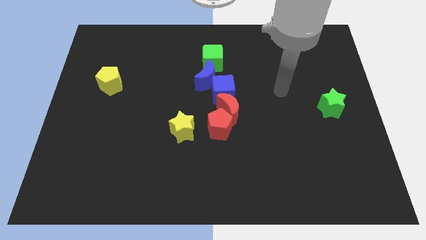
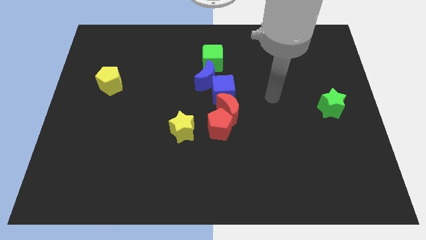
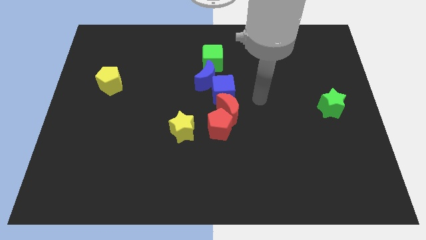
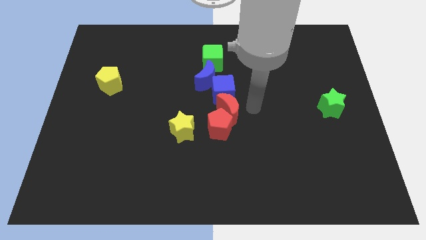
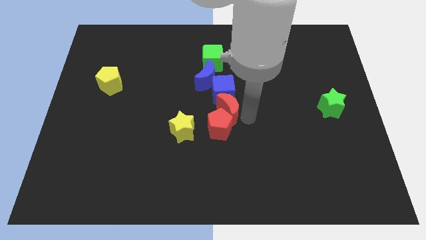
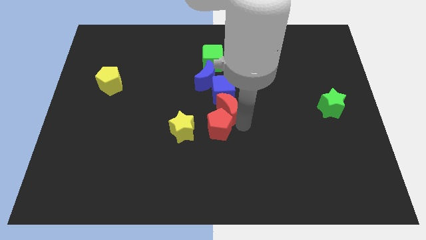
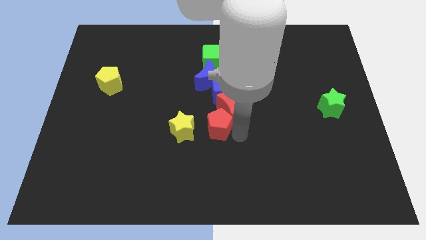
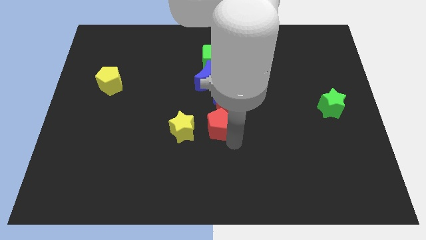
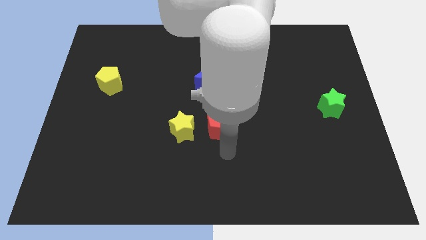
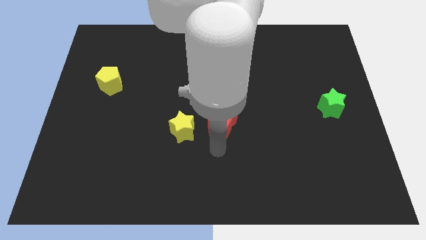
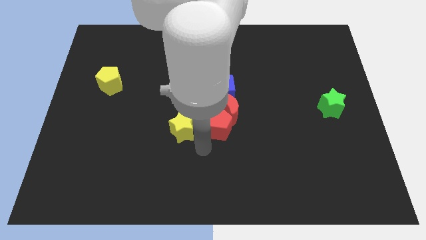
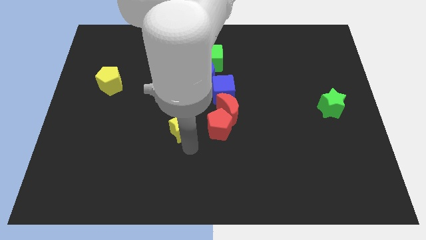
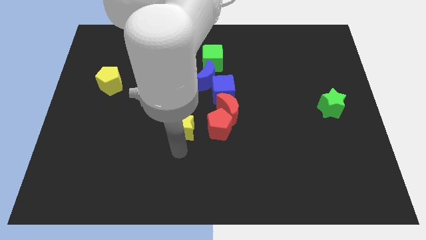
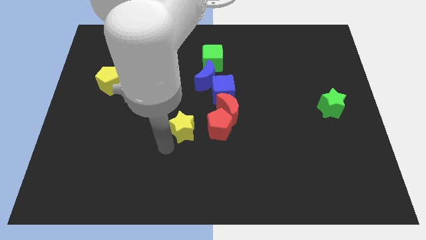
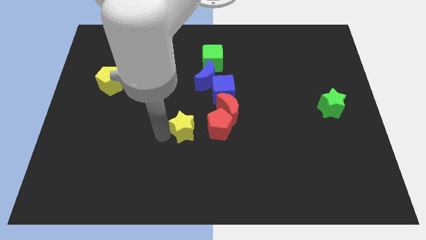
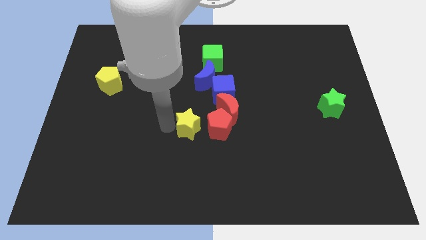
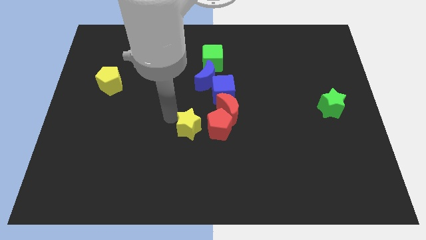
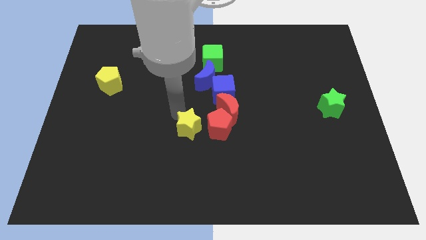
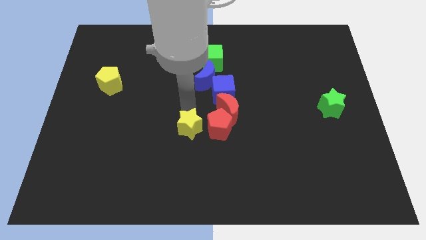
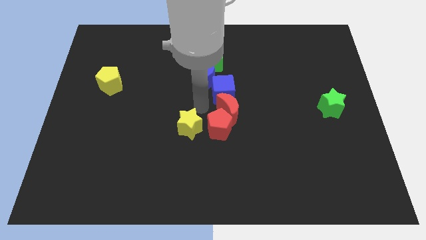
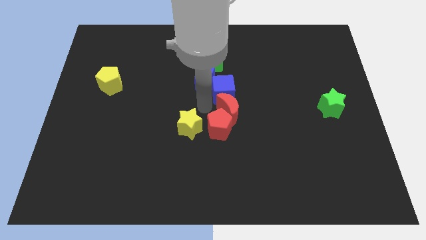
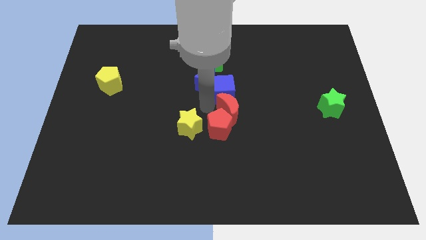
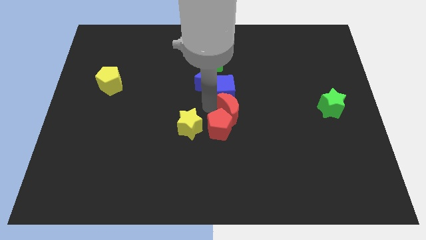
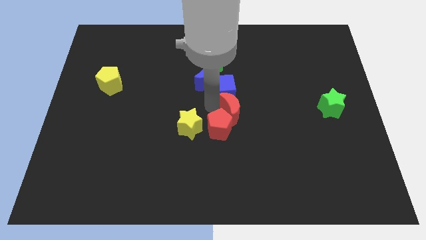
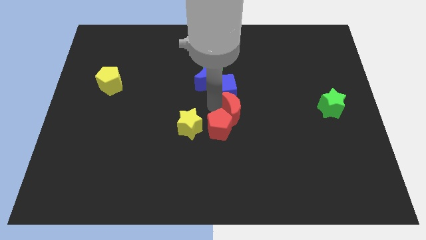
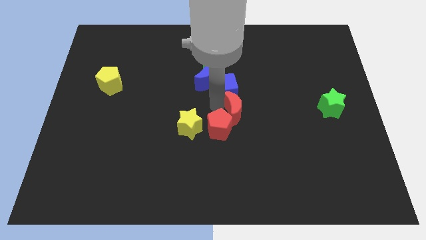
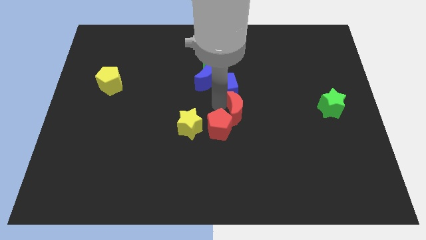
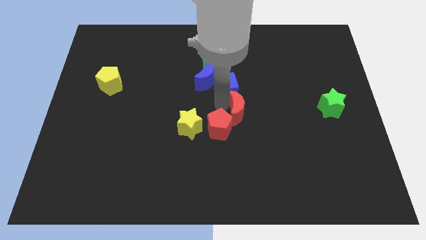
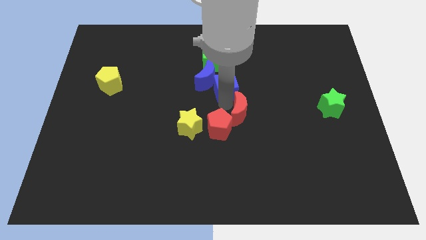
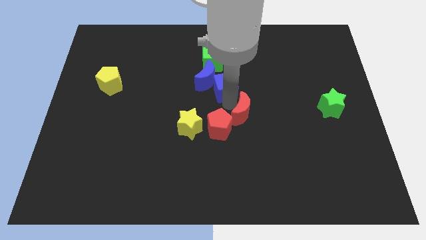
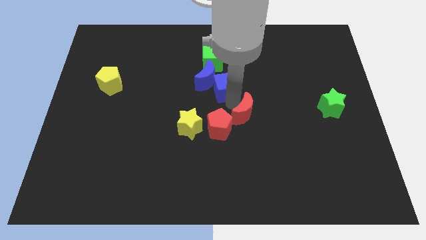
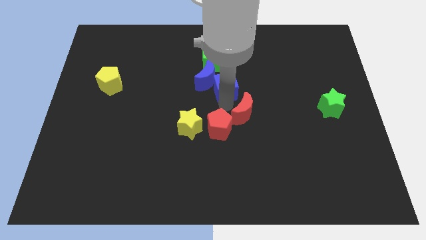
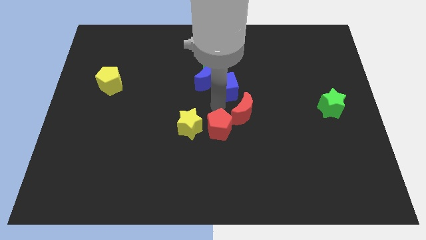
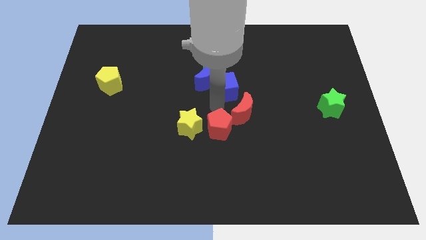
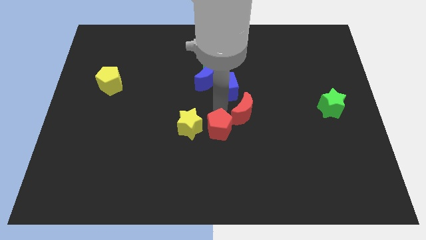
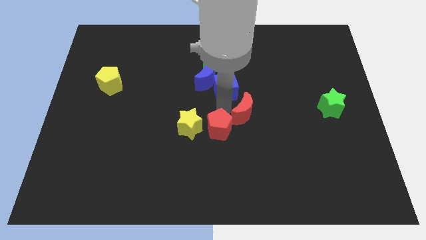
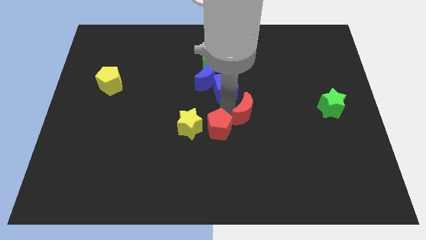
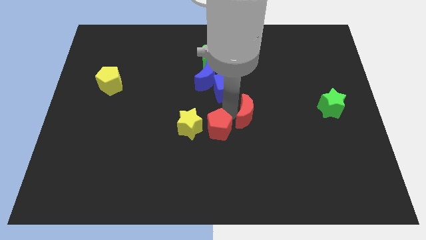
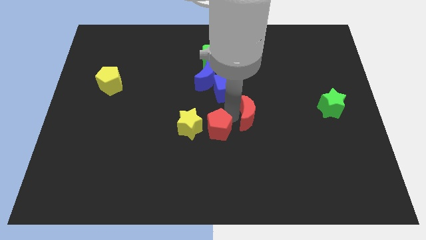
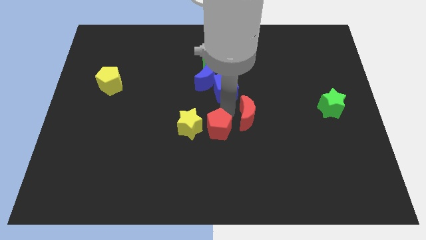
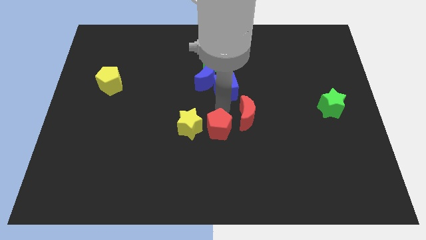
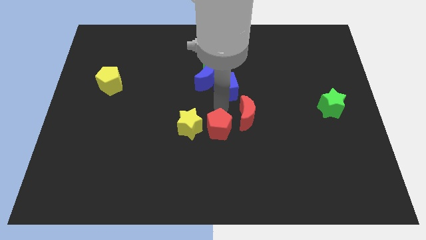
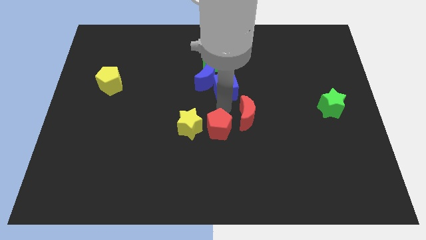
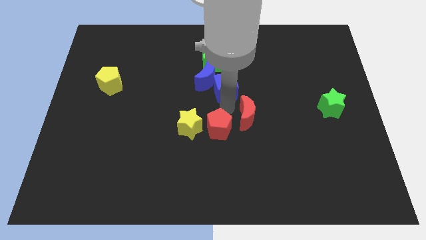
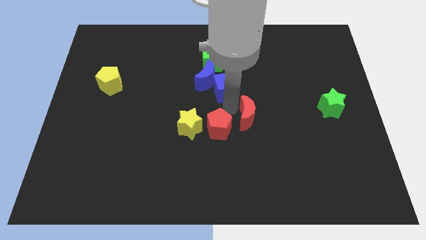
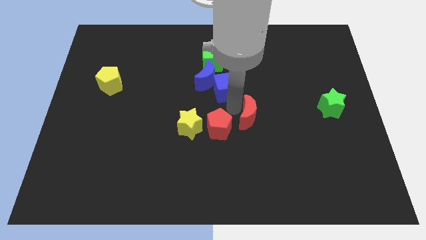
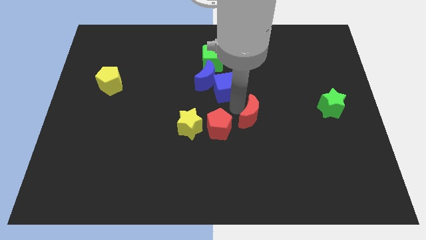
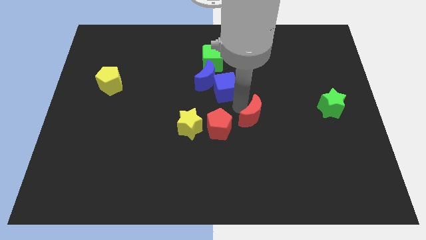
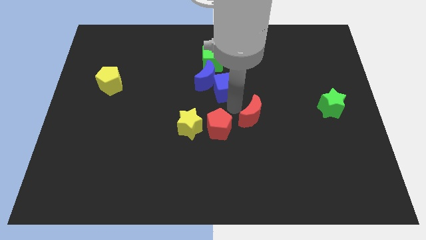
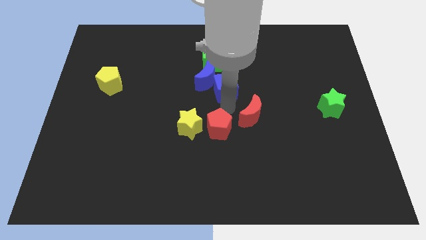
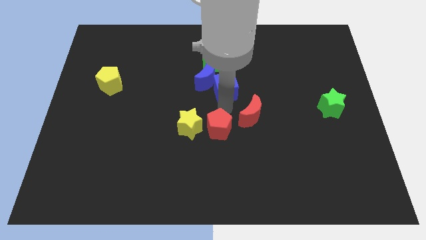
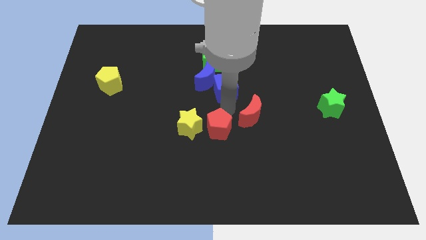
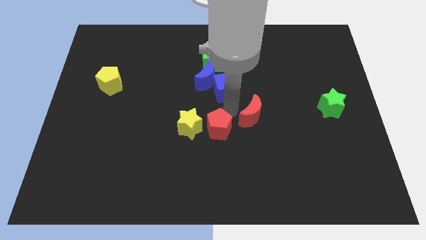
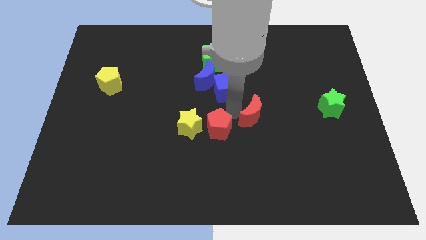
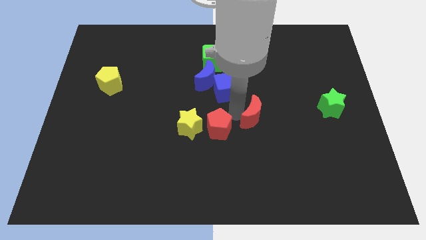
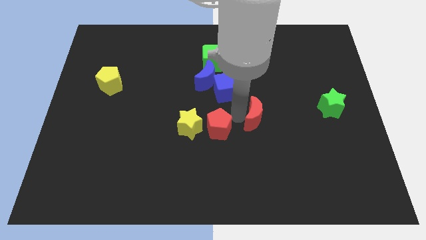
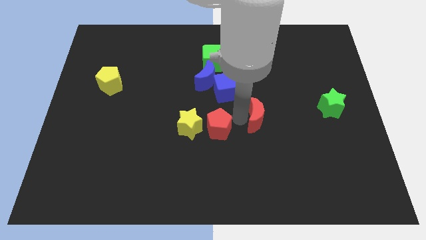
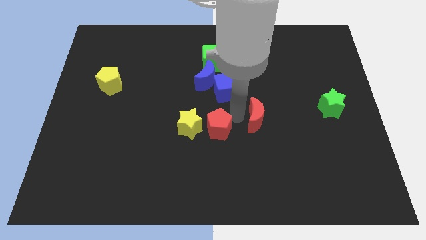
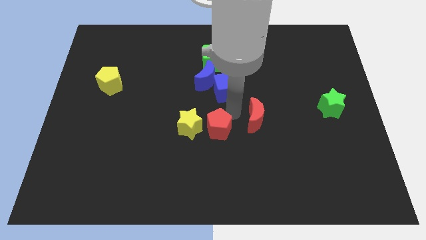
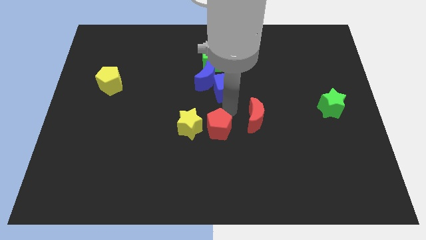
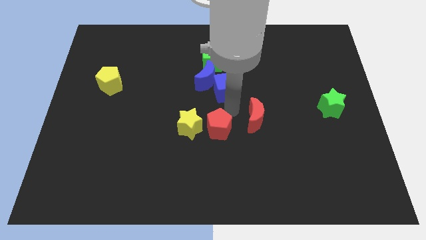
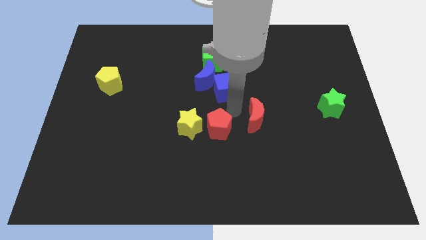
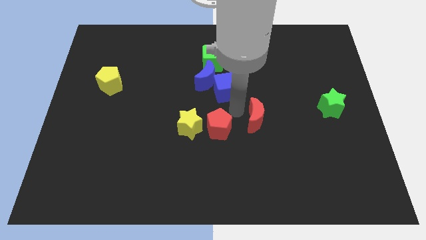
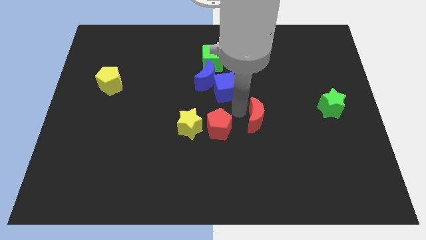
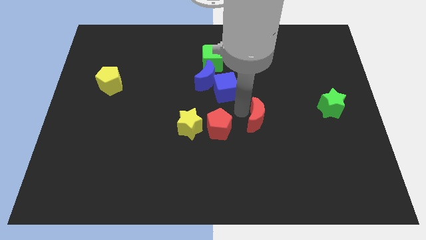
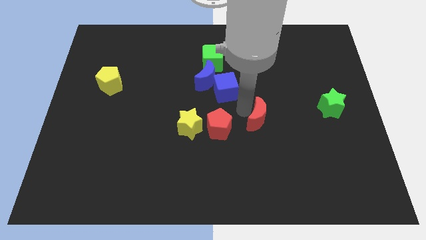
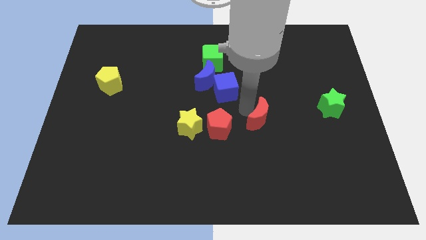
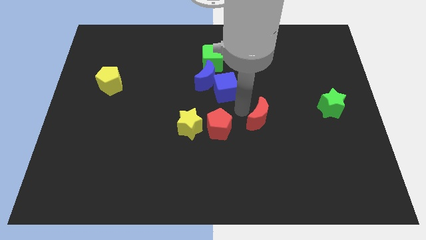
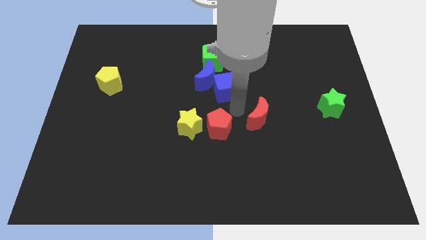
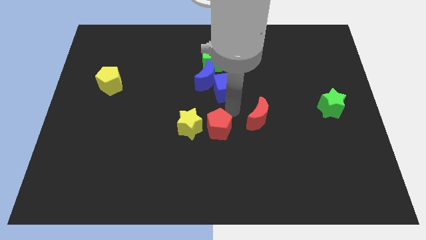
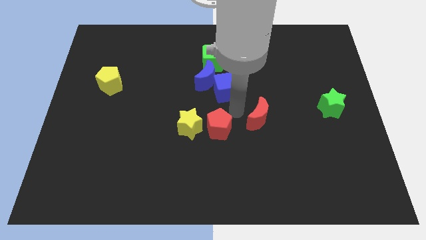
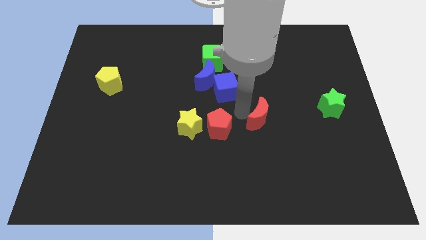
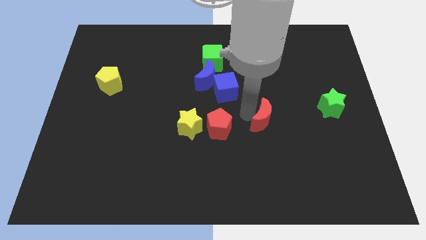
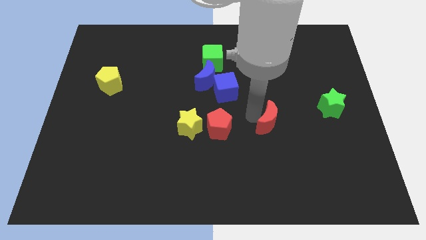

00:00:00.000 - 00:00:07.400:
pull the red moon apart from the red pentagon and blue cube

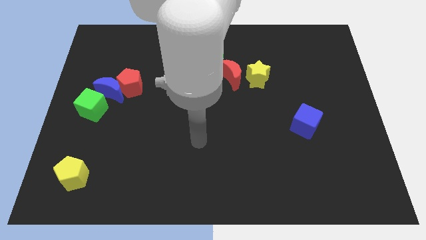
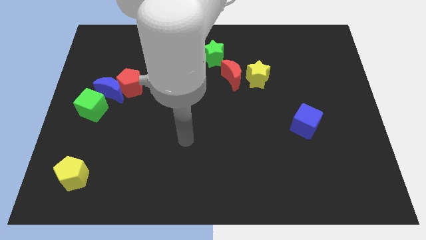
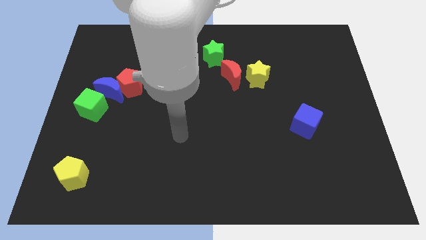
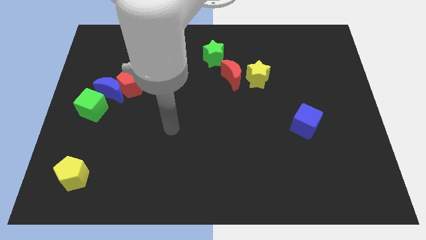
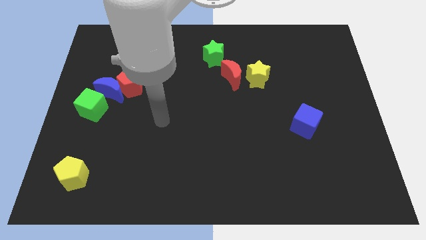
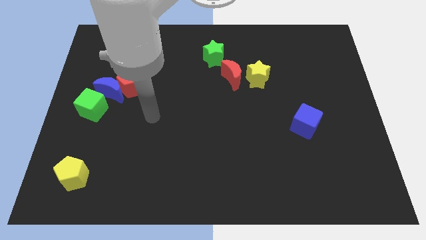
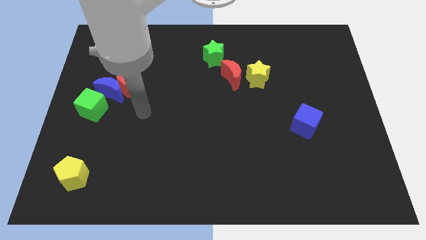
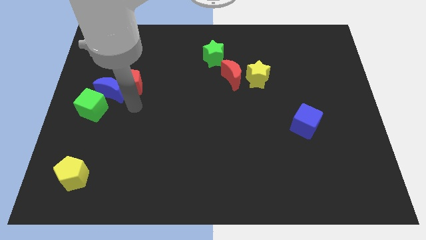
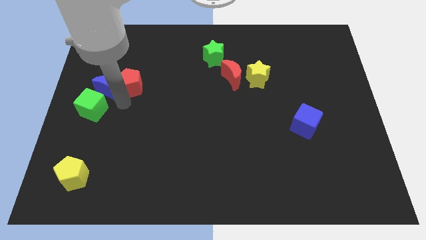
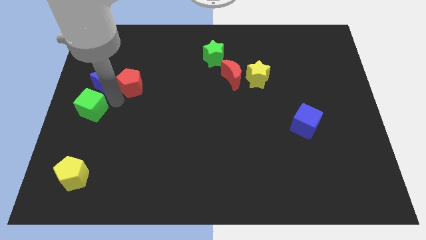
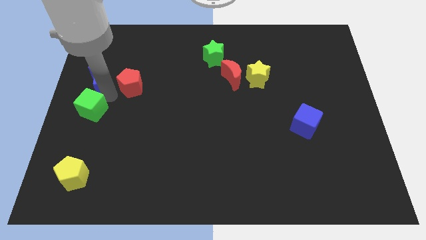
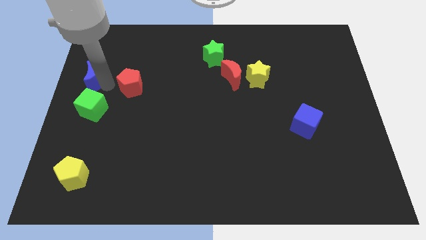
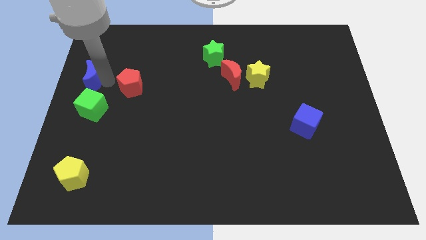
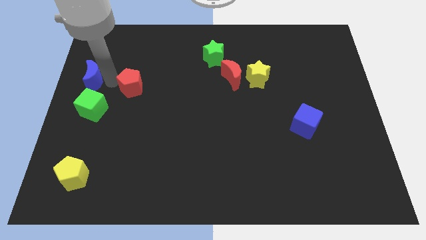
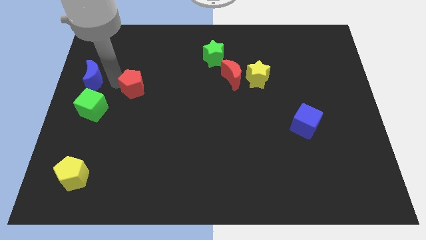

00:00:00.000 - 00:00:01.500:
separate the red pentagon from the blue moon

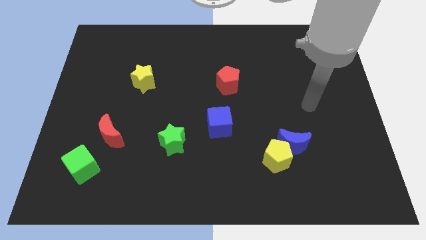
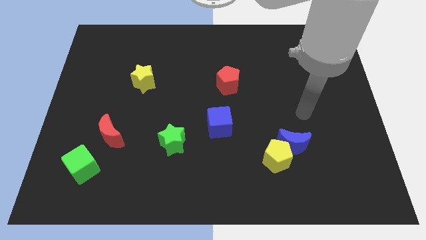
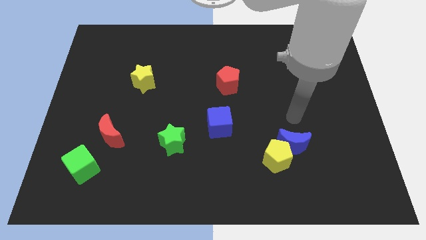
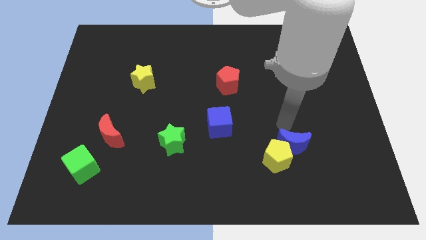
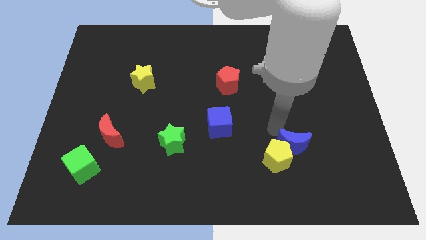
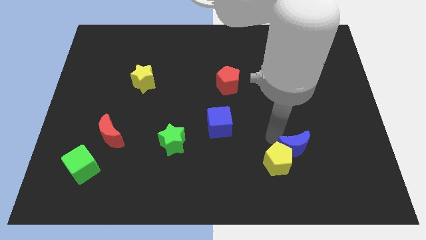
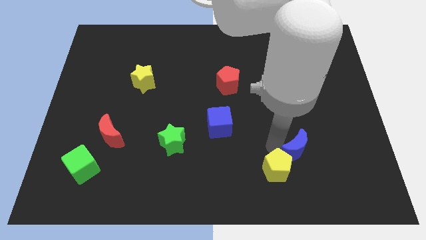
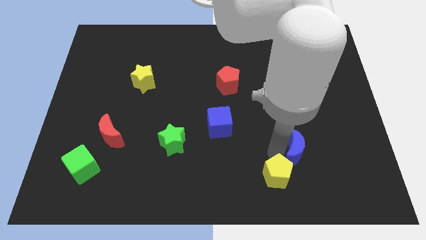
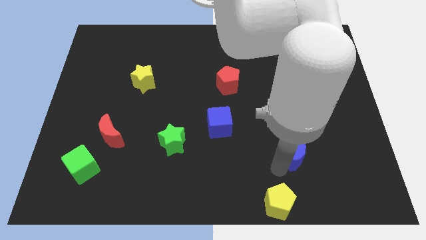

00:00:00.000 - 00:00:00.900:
move the blue moon away from the yellow pentagon
